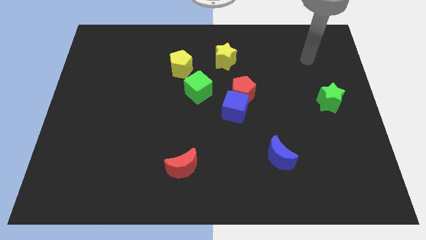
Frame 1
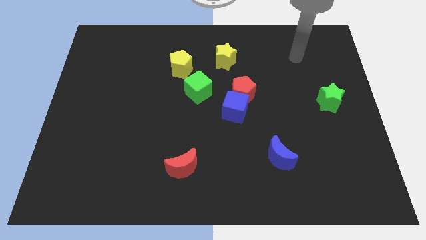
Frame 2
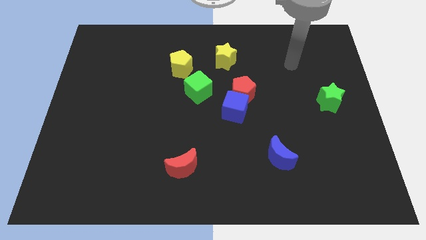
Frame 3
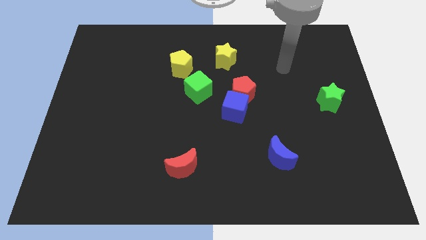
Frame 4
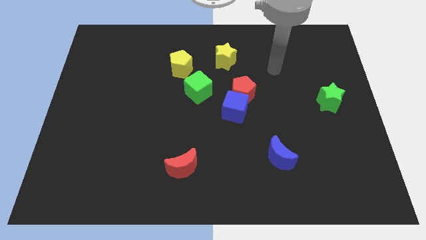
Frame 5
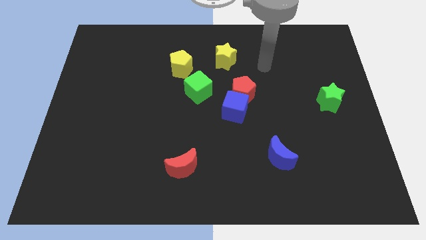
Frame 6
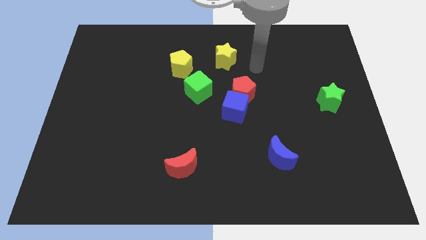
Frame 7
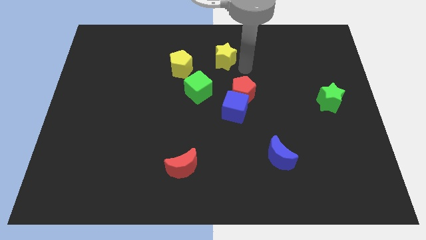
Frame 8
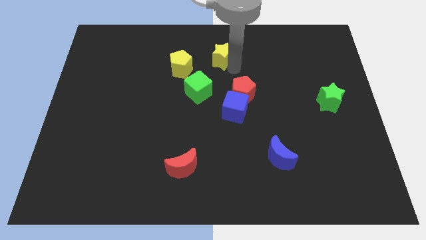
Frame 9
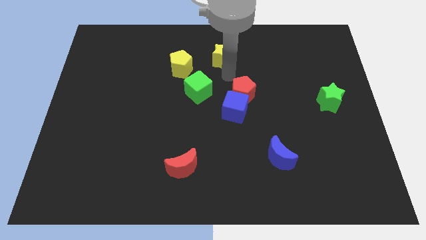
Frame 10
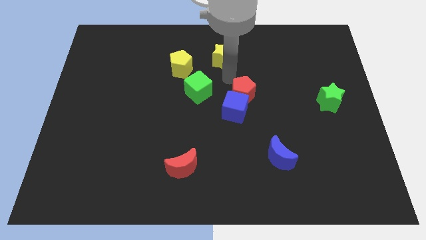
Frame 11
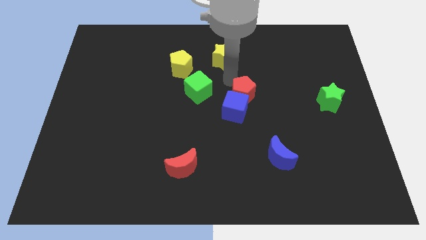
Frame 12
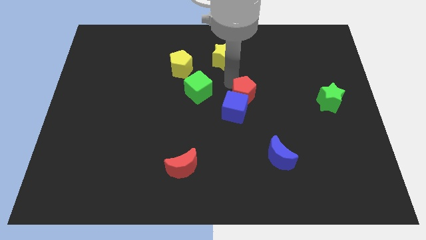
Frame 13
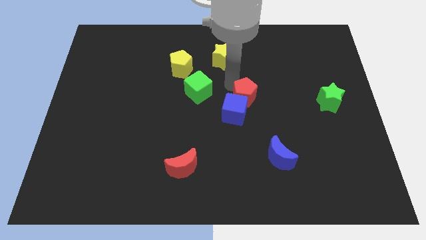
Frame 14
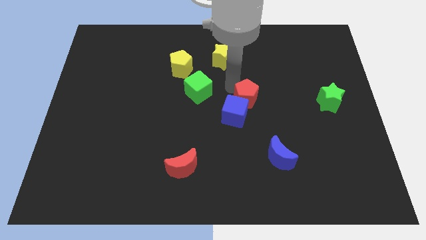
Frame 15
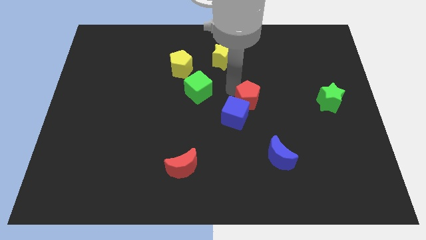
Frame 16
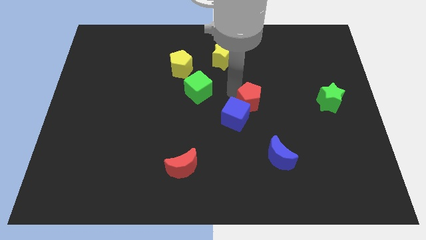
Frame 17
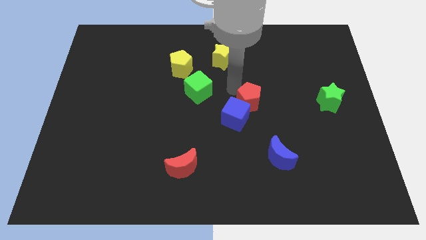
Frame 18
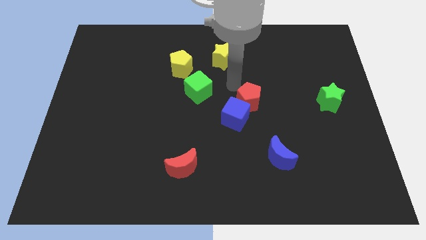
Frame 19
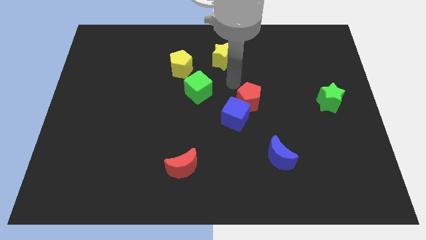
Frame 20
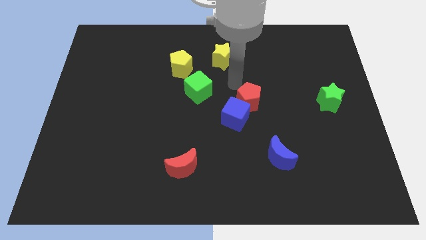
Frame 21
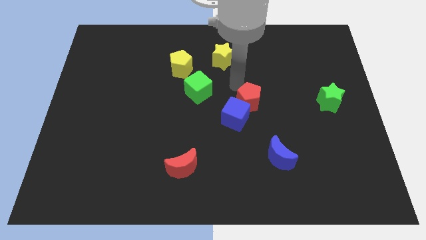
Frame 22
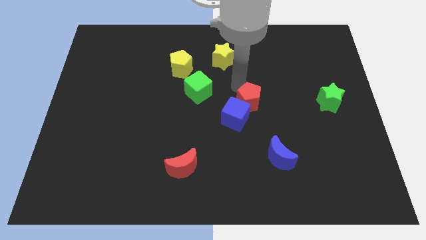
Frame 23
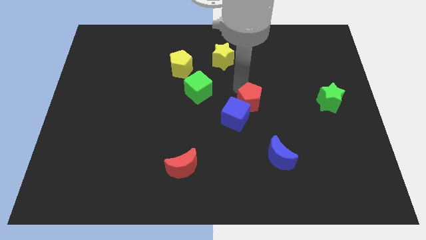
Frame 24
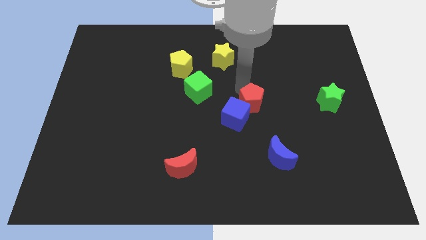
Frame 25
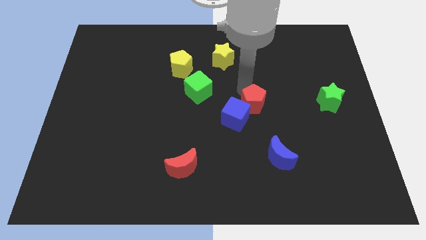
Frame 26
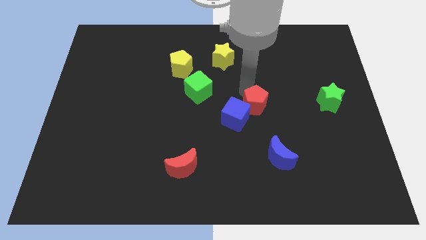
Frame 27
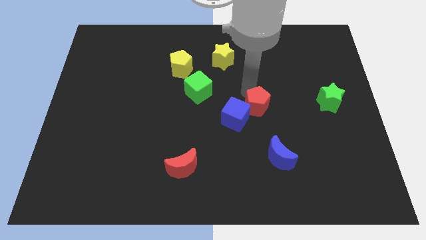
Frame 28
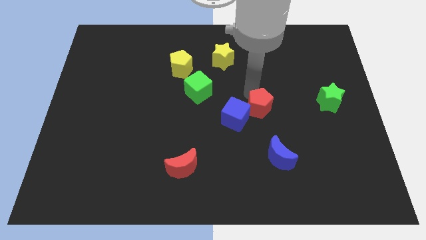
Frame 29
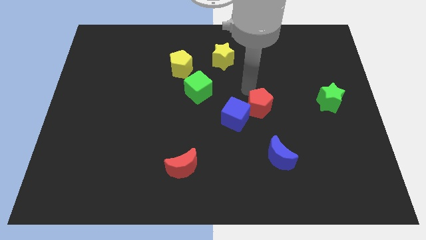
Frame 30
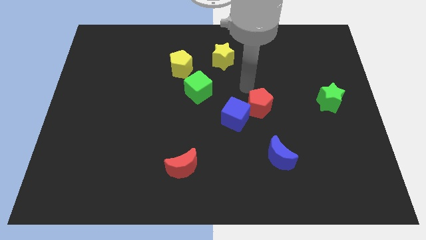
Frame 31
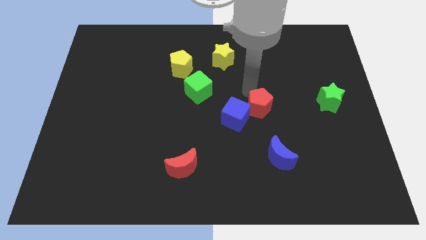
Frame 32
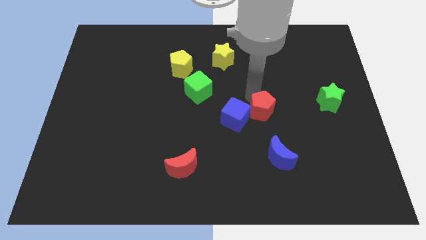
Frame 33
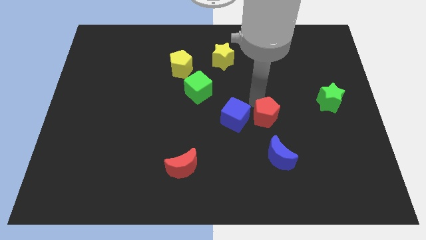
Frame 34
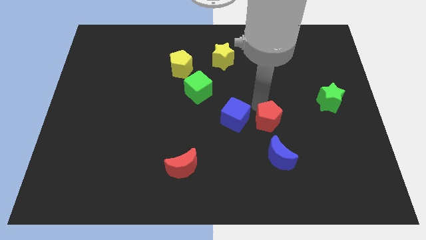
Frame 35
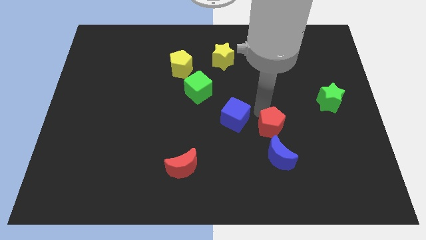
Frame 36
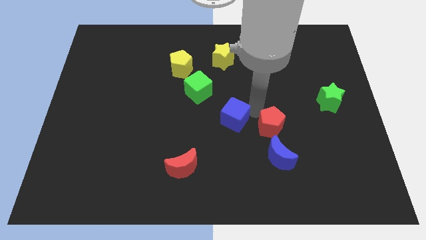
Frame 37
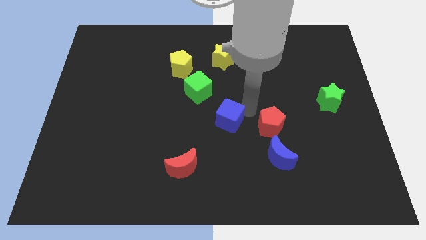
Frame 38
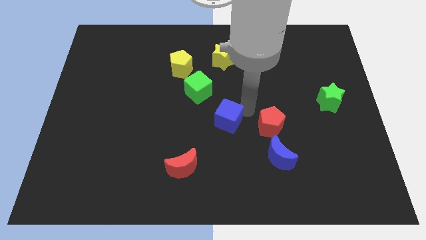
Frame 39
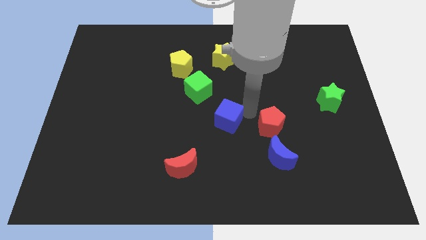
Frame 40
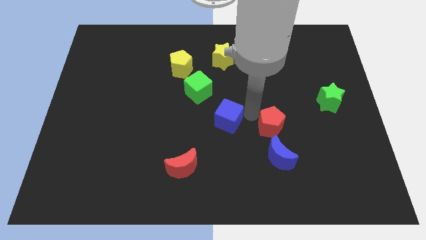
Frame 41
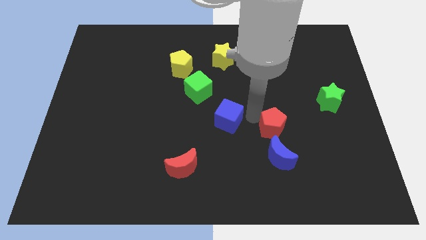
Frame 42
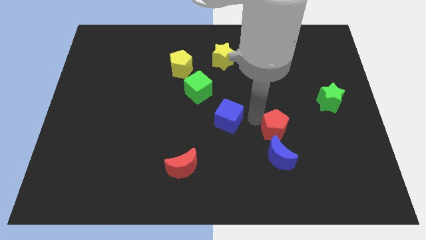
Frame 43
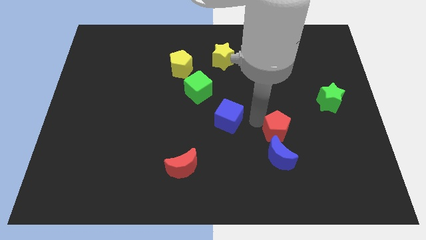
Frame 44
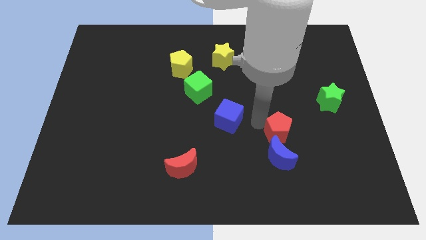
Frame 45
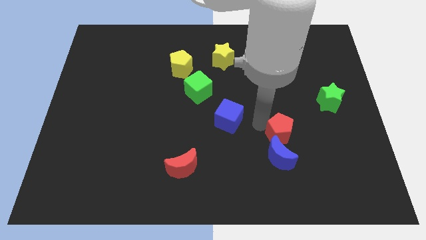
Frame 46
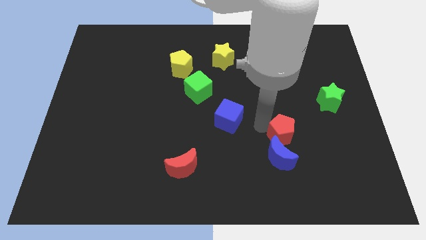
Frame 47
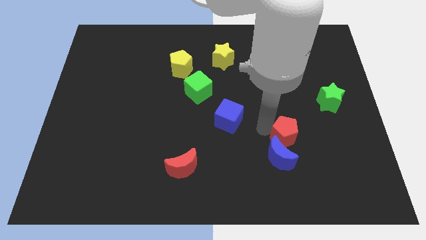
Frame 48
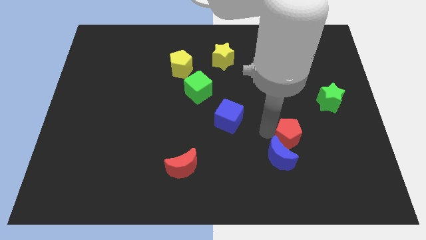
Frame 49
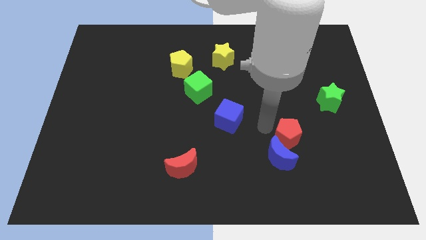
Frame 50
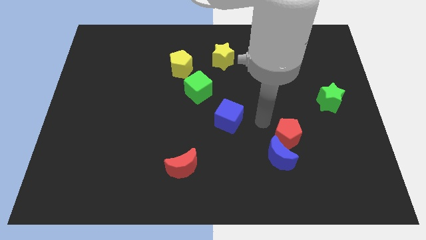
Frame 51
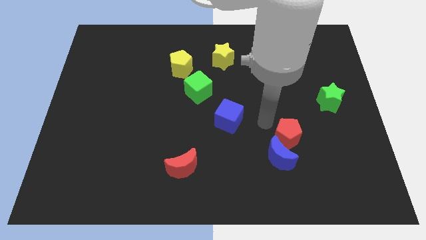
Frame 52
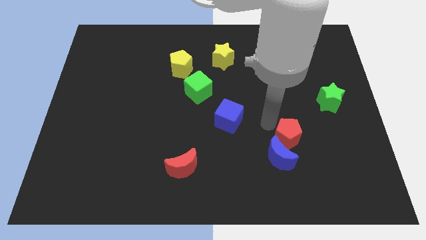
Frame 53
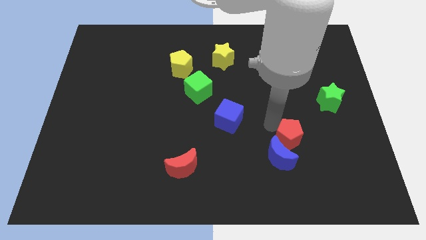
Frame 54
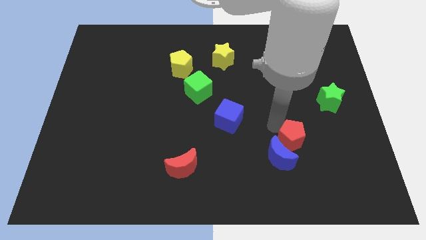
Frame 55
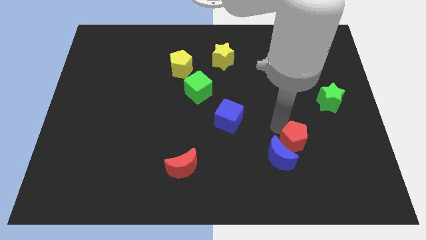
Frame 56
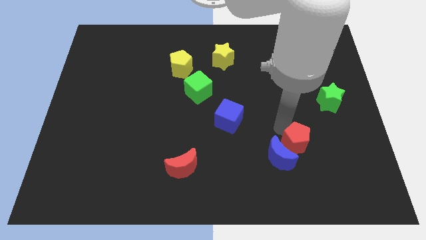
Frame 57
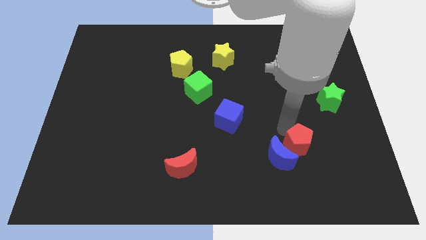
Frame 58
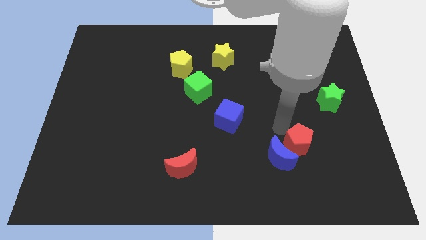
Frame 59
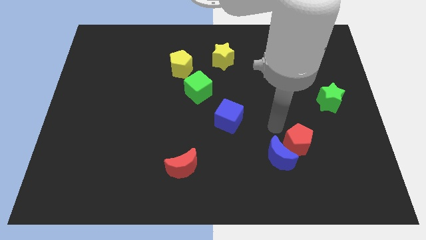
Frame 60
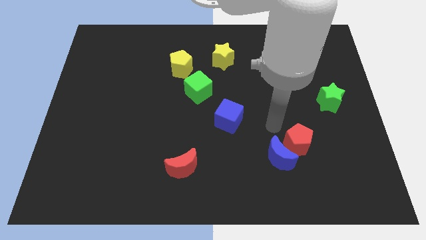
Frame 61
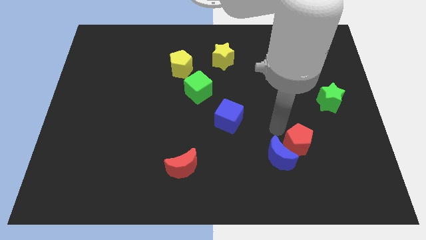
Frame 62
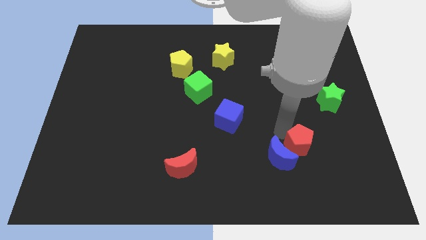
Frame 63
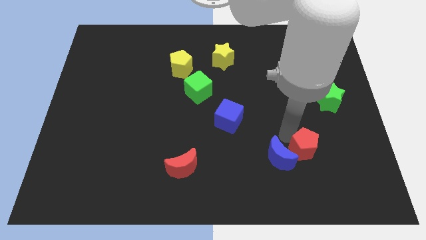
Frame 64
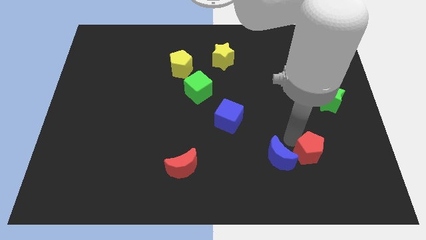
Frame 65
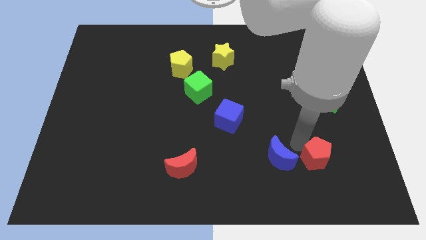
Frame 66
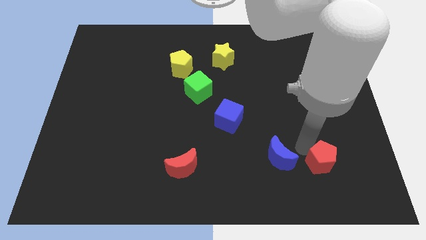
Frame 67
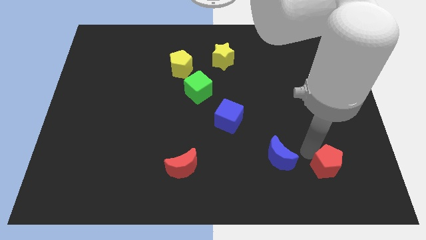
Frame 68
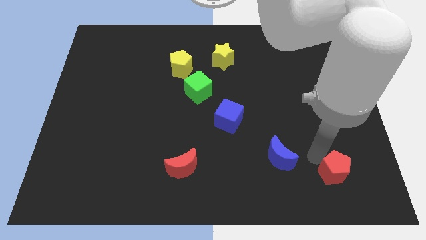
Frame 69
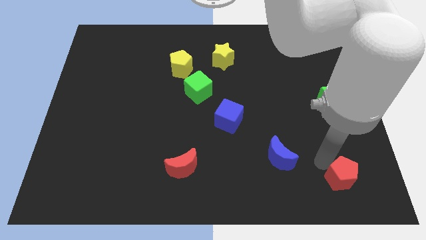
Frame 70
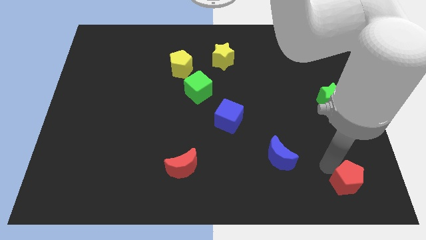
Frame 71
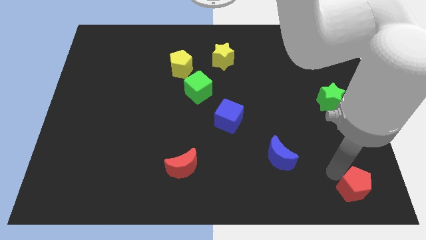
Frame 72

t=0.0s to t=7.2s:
move the red pentagon to the bottom right of the board

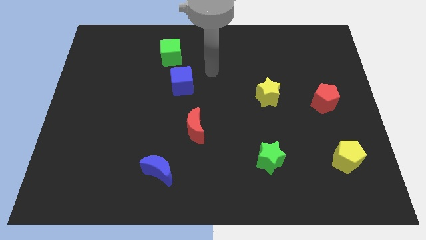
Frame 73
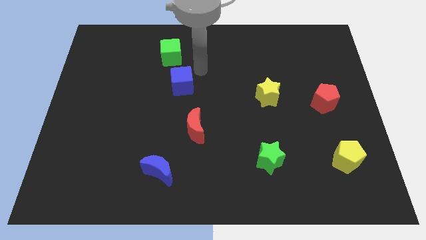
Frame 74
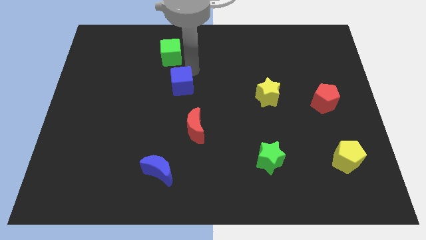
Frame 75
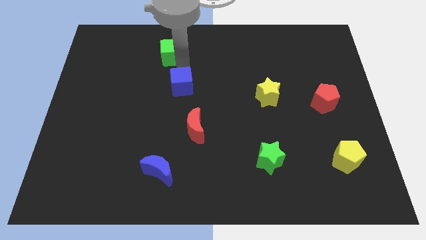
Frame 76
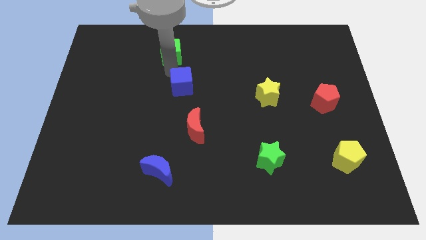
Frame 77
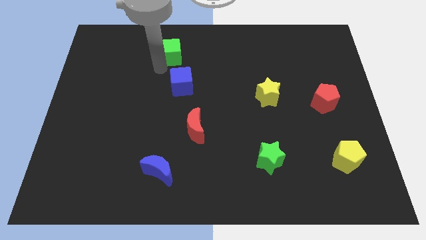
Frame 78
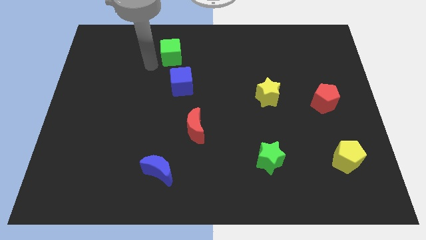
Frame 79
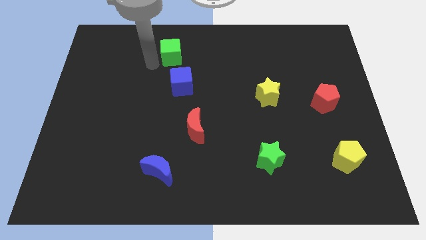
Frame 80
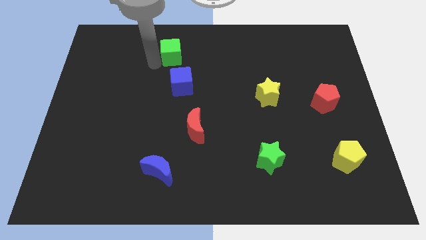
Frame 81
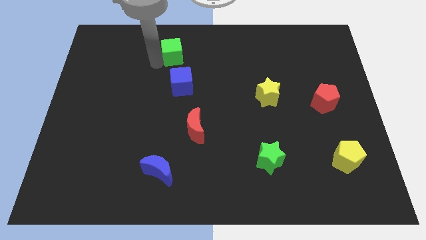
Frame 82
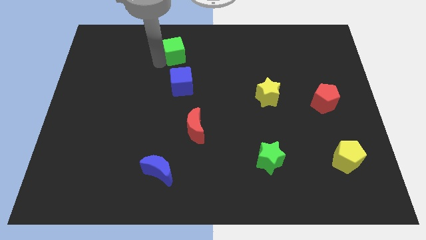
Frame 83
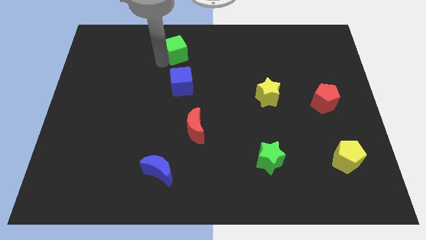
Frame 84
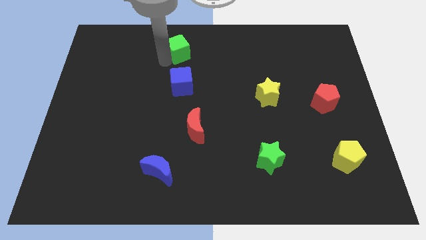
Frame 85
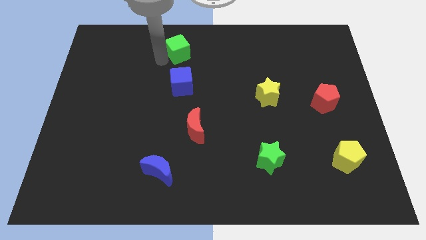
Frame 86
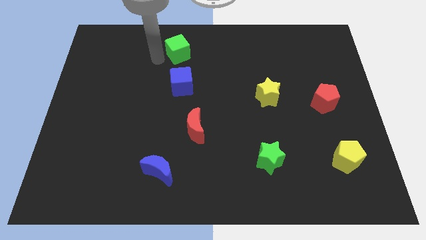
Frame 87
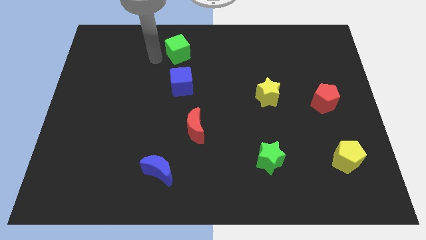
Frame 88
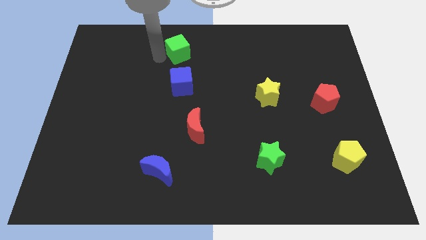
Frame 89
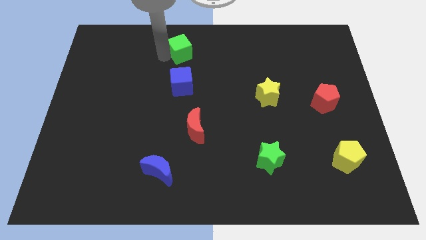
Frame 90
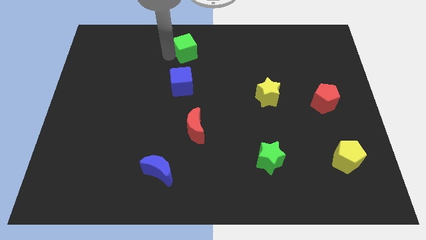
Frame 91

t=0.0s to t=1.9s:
put the green cube to the top
